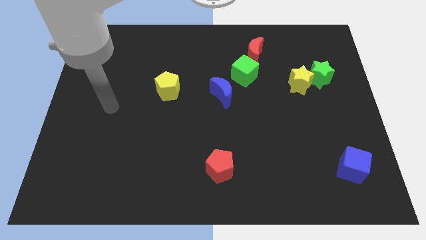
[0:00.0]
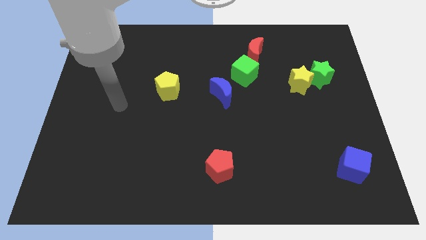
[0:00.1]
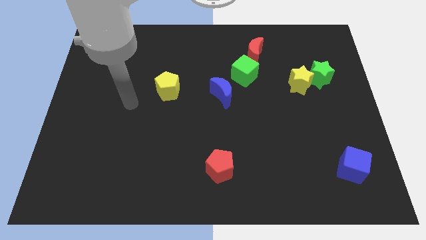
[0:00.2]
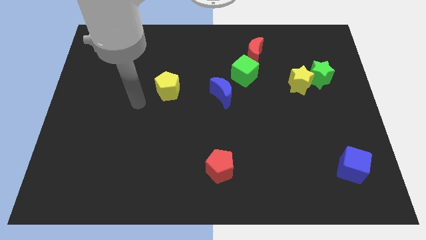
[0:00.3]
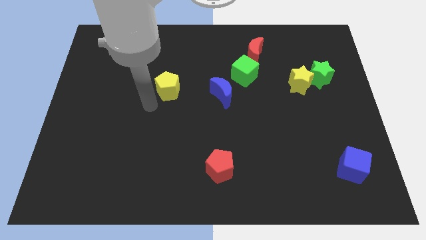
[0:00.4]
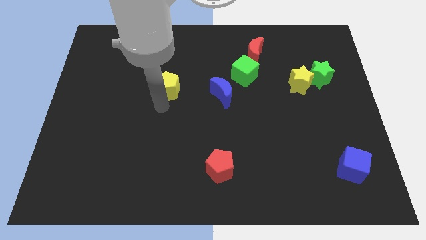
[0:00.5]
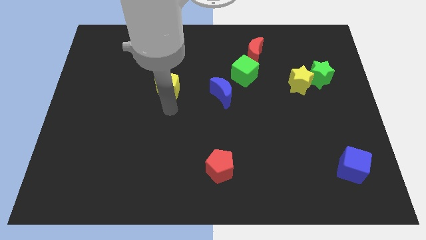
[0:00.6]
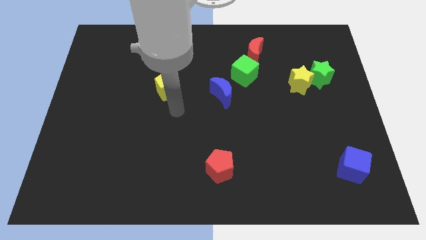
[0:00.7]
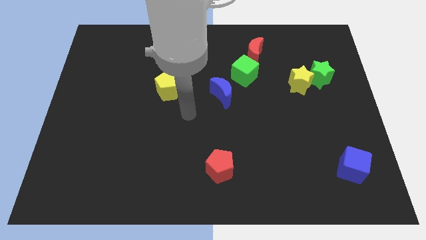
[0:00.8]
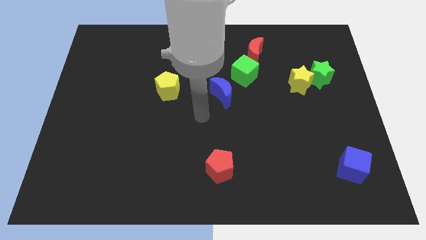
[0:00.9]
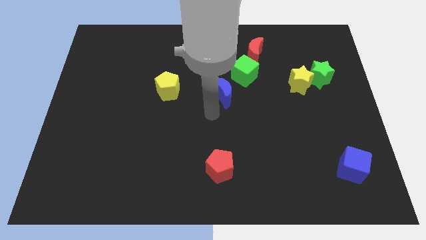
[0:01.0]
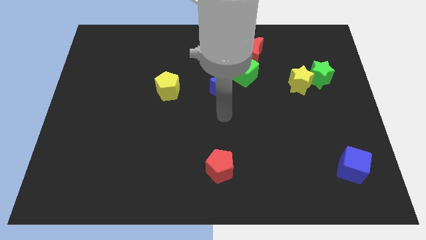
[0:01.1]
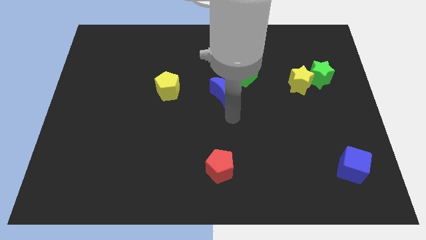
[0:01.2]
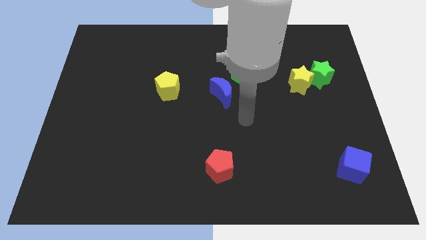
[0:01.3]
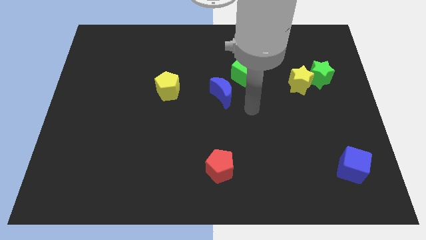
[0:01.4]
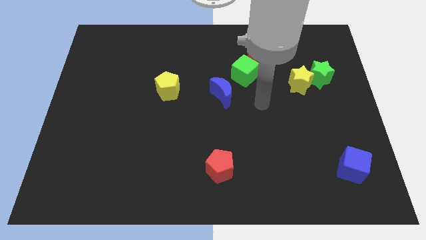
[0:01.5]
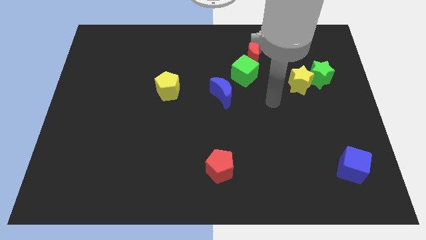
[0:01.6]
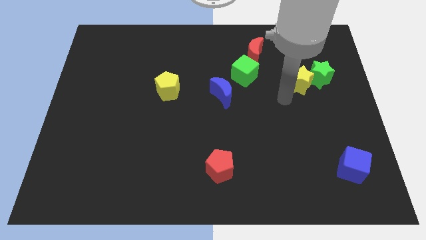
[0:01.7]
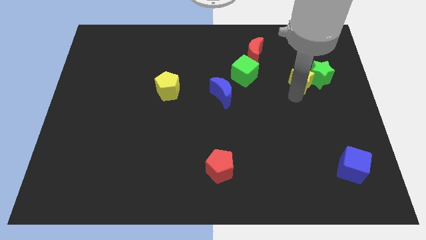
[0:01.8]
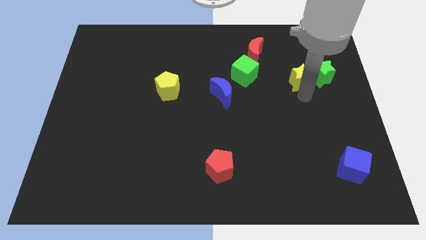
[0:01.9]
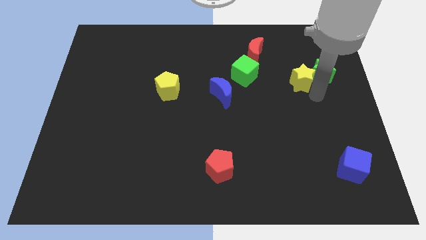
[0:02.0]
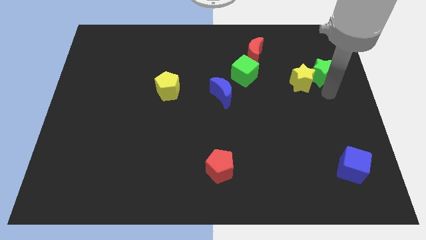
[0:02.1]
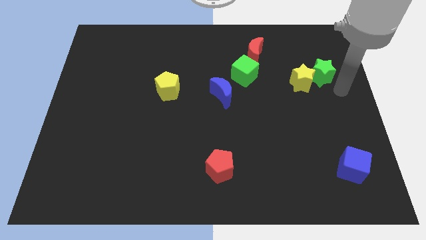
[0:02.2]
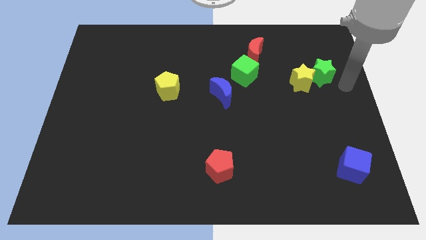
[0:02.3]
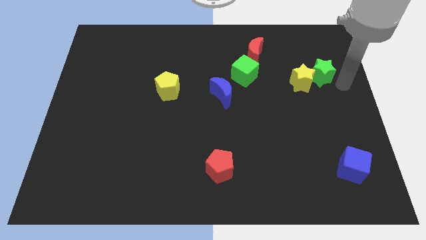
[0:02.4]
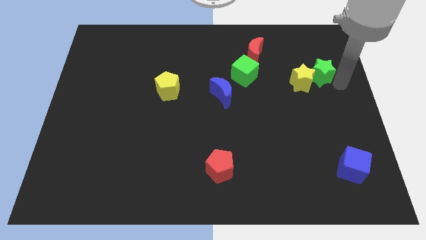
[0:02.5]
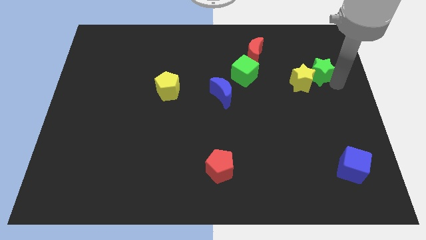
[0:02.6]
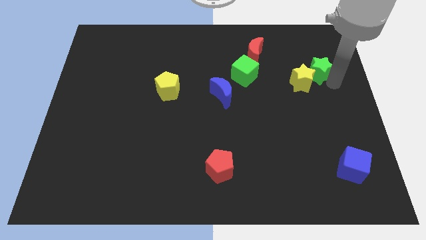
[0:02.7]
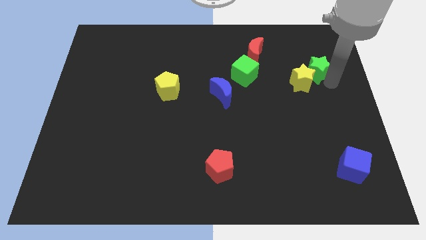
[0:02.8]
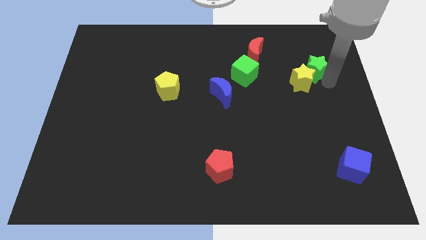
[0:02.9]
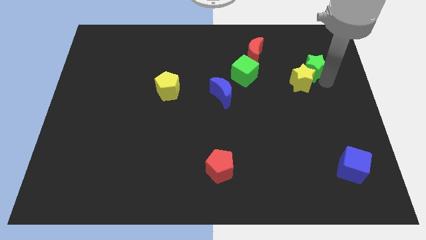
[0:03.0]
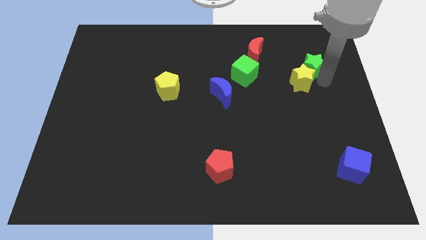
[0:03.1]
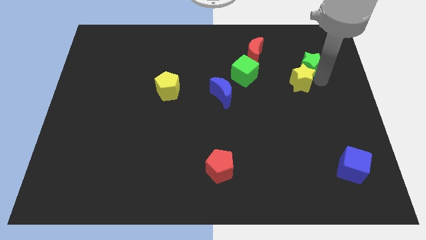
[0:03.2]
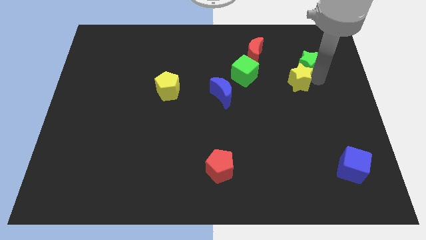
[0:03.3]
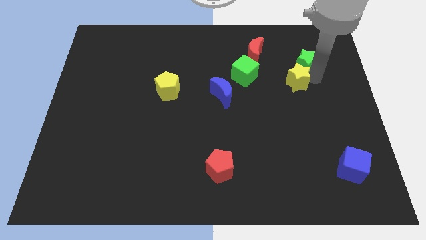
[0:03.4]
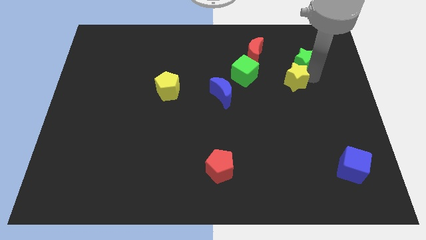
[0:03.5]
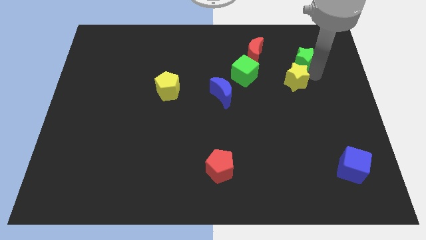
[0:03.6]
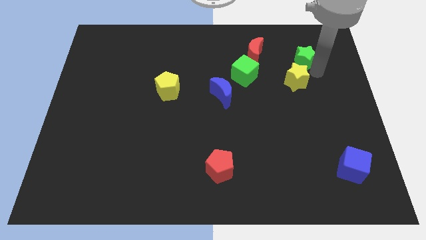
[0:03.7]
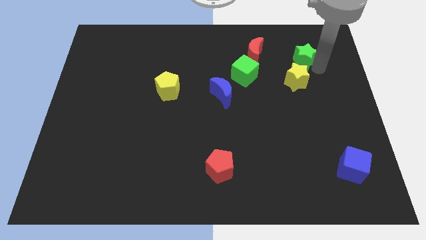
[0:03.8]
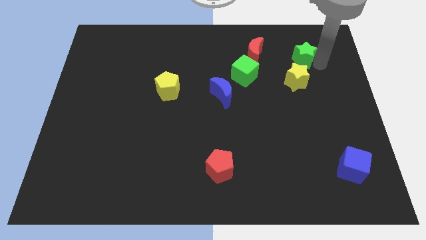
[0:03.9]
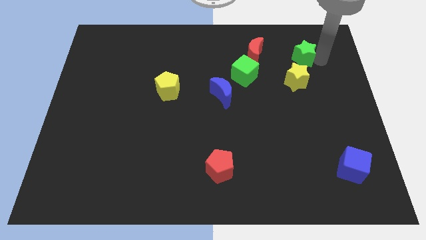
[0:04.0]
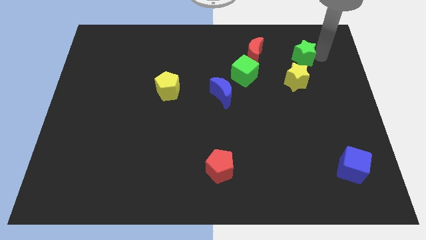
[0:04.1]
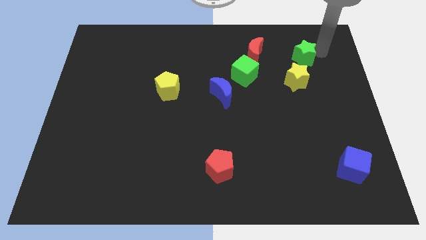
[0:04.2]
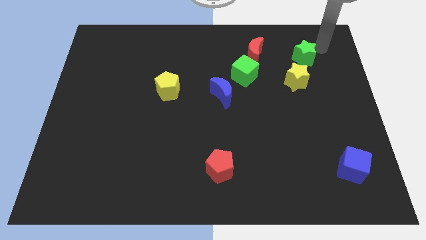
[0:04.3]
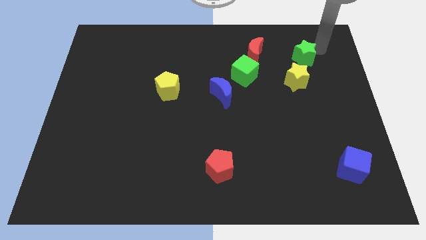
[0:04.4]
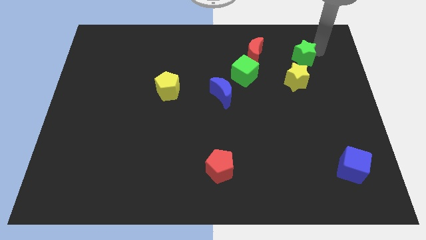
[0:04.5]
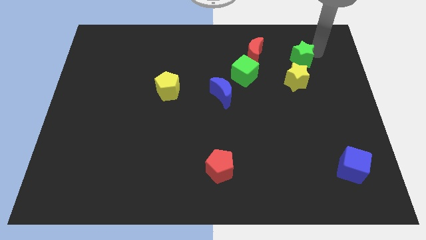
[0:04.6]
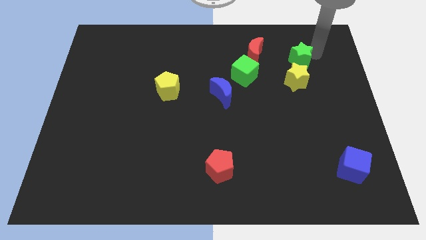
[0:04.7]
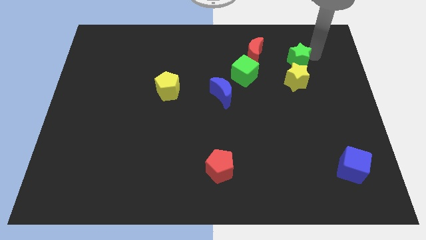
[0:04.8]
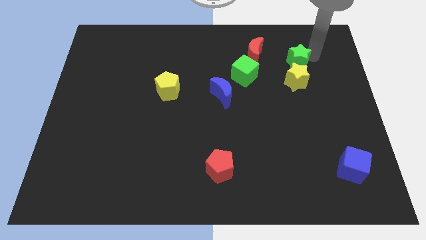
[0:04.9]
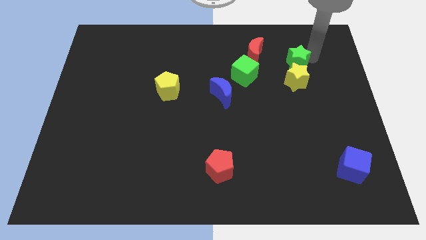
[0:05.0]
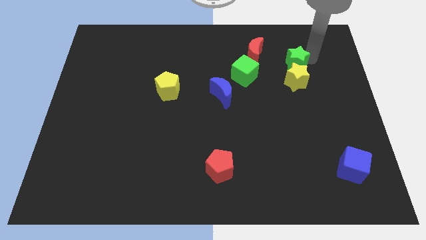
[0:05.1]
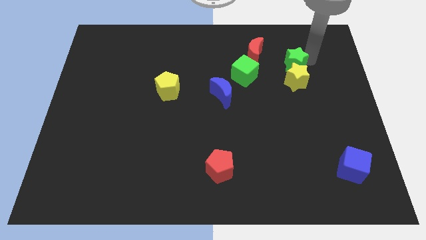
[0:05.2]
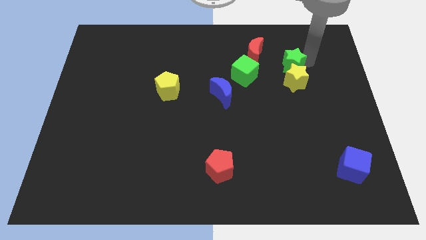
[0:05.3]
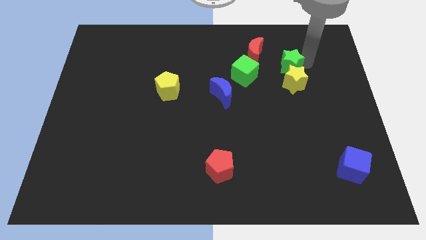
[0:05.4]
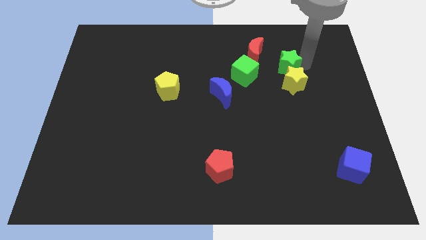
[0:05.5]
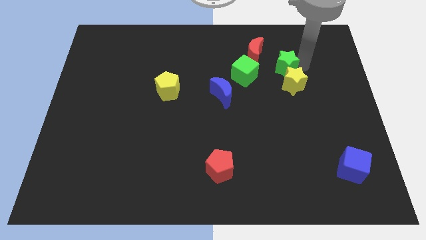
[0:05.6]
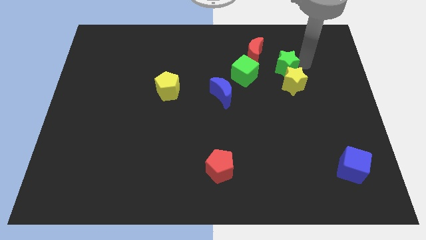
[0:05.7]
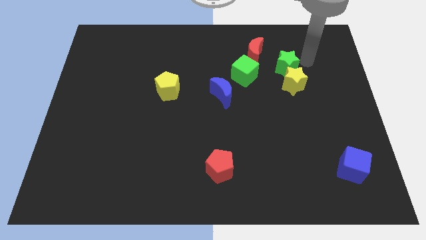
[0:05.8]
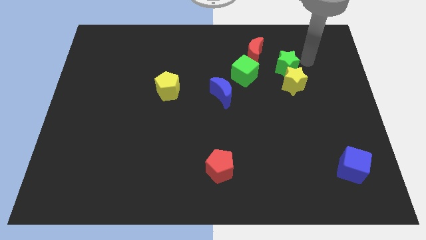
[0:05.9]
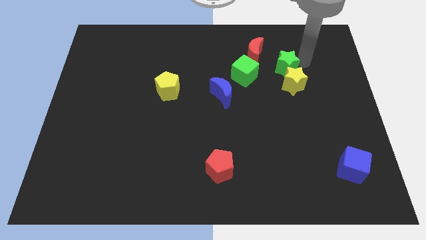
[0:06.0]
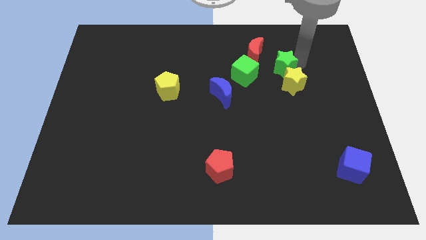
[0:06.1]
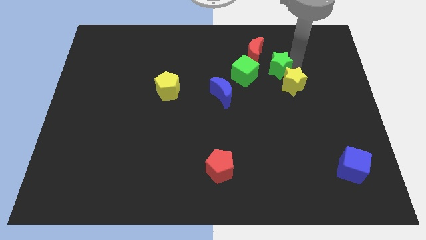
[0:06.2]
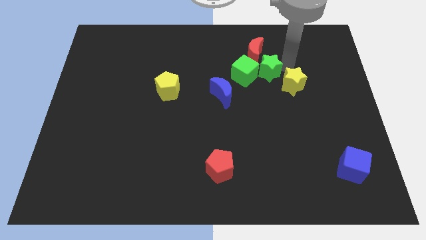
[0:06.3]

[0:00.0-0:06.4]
slide the green star next to the green cube

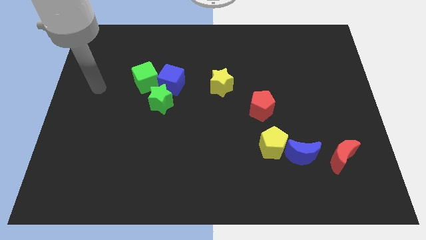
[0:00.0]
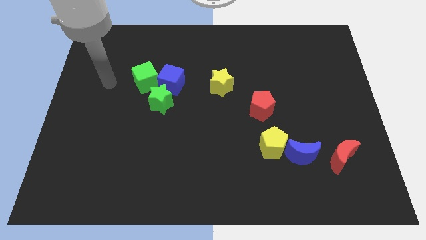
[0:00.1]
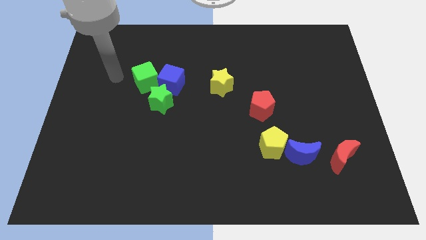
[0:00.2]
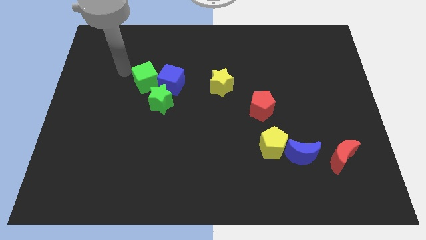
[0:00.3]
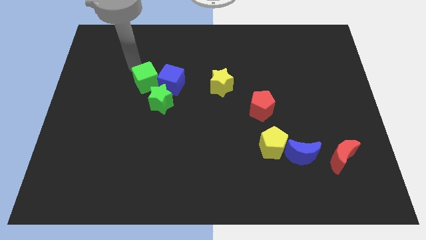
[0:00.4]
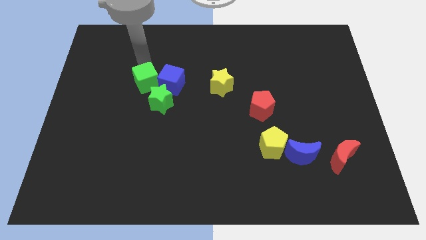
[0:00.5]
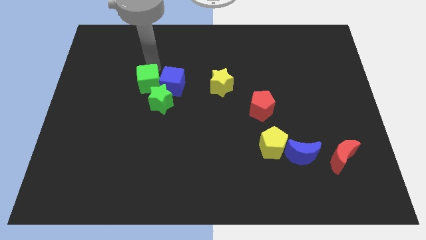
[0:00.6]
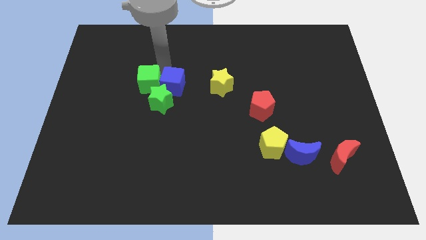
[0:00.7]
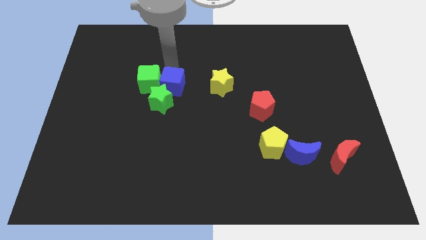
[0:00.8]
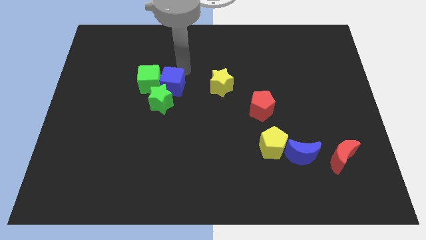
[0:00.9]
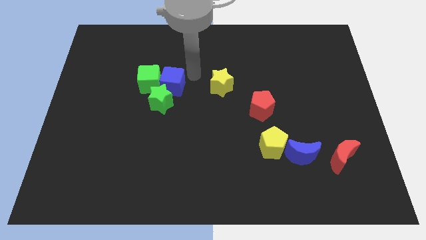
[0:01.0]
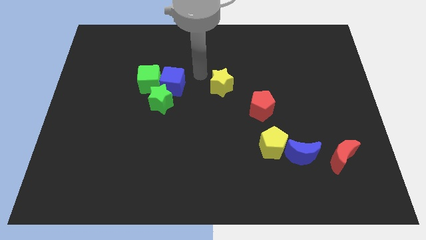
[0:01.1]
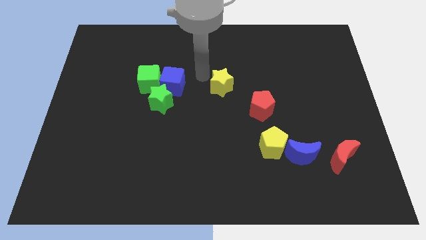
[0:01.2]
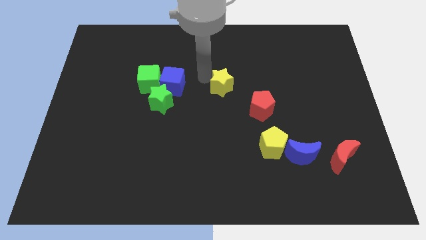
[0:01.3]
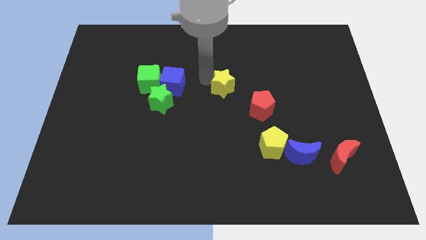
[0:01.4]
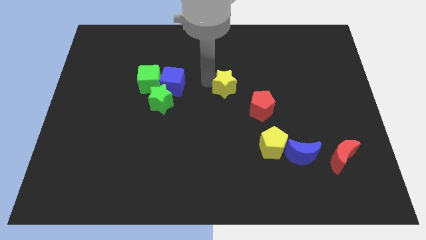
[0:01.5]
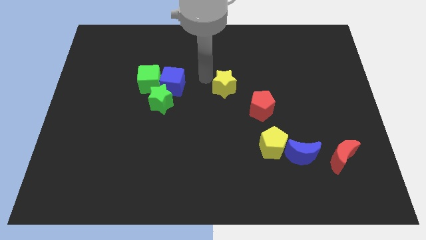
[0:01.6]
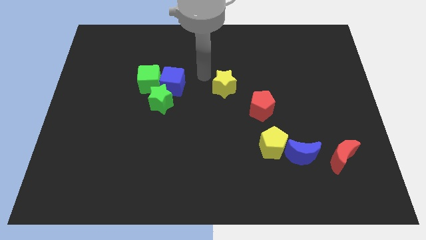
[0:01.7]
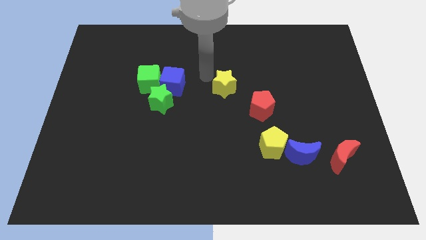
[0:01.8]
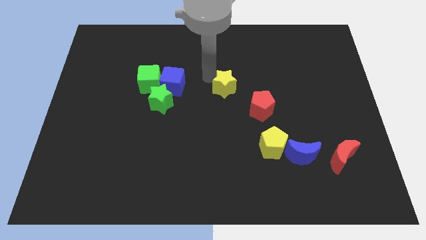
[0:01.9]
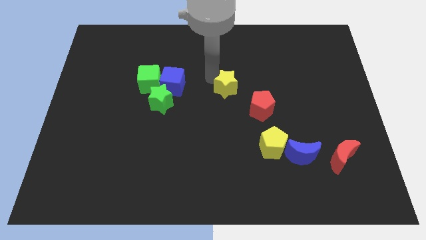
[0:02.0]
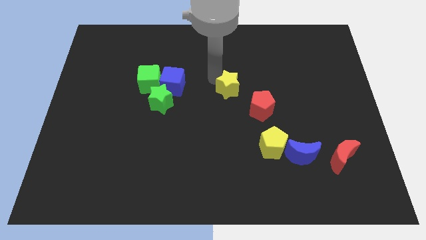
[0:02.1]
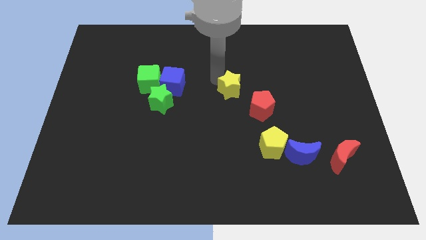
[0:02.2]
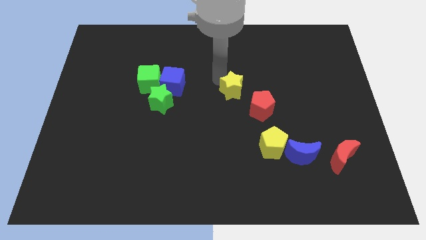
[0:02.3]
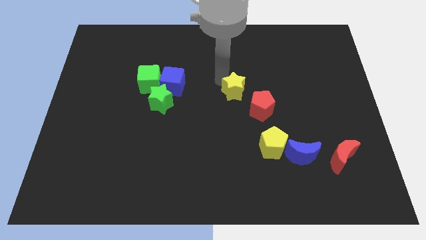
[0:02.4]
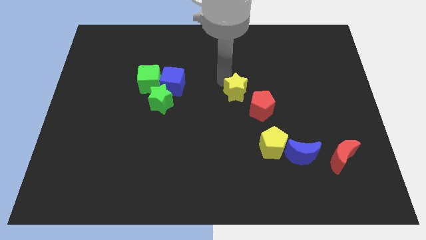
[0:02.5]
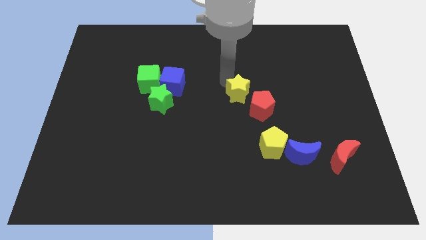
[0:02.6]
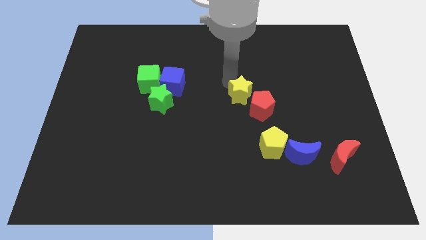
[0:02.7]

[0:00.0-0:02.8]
put the yellow star next to the red pentagon
